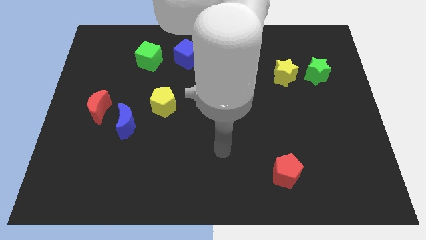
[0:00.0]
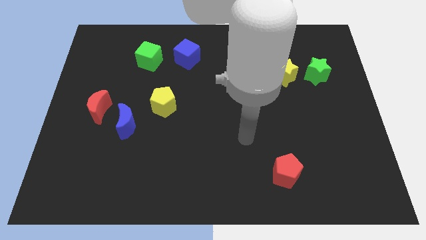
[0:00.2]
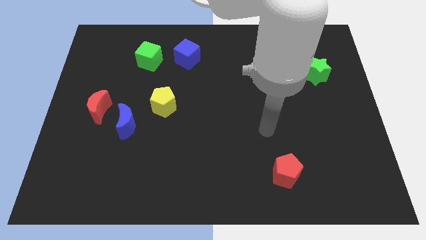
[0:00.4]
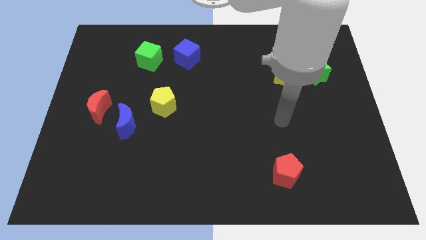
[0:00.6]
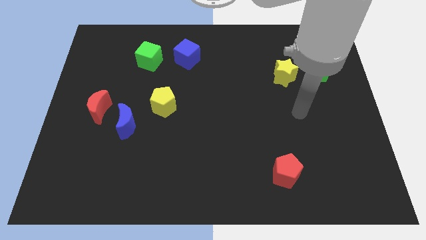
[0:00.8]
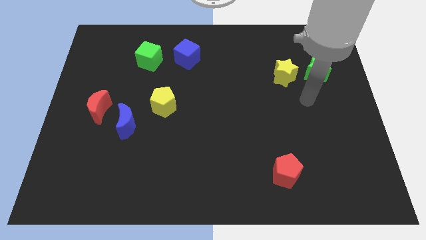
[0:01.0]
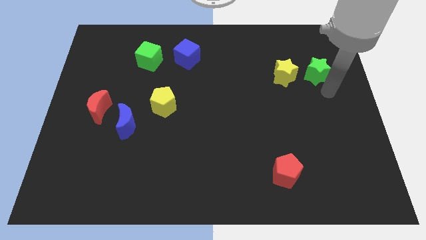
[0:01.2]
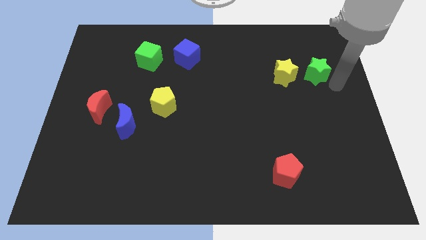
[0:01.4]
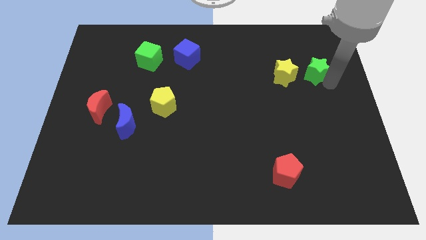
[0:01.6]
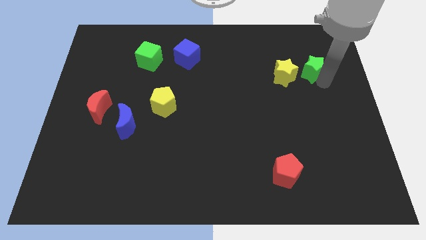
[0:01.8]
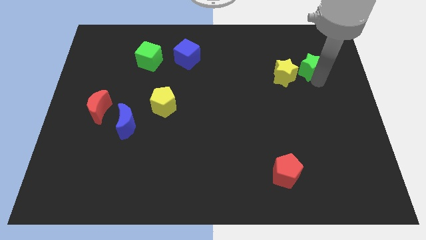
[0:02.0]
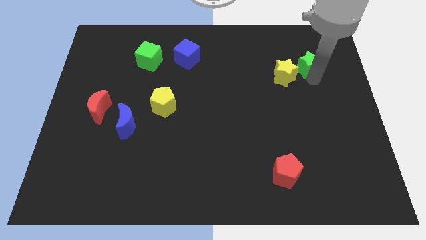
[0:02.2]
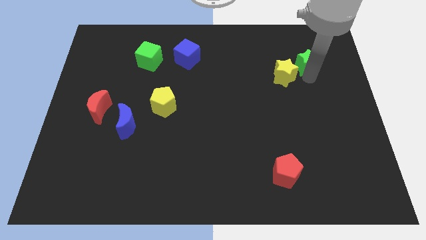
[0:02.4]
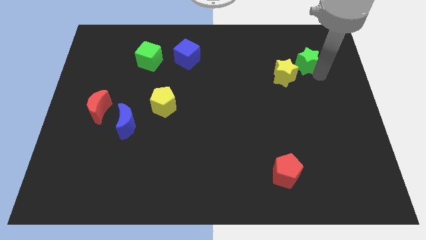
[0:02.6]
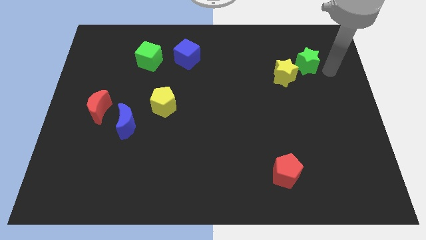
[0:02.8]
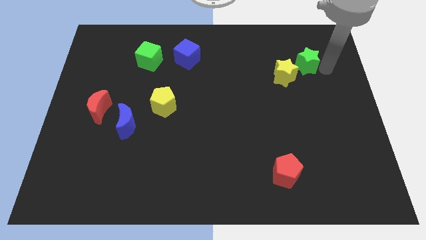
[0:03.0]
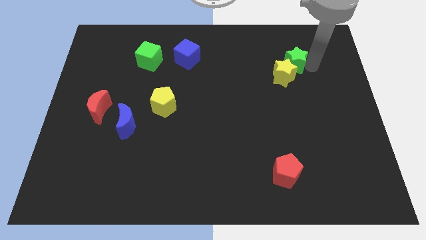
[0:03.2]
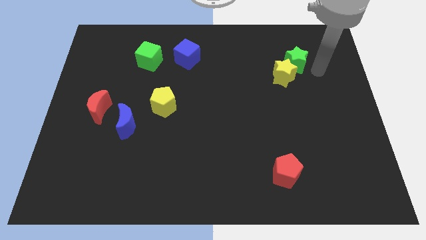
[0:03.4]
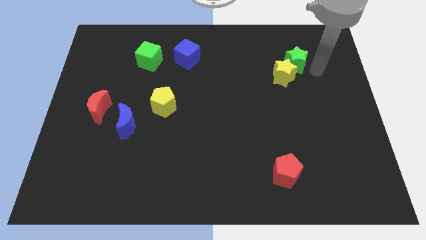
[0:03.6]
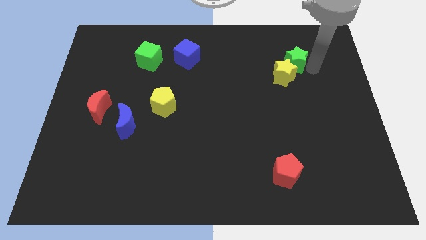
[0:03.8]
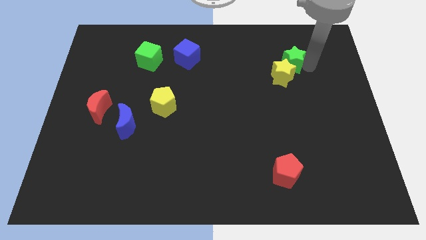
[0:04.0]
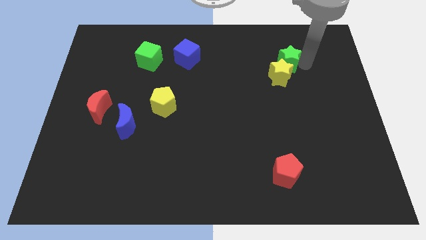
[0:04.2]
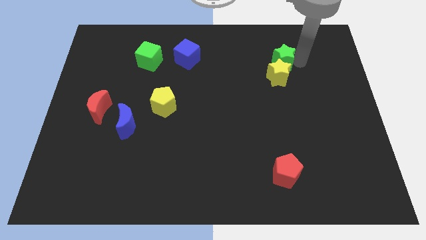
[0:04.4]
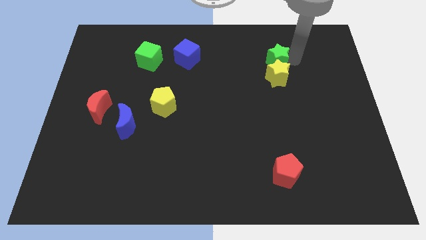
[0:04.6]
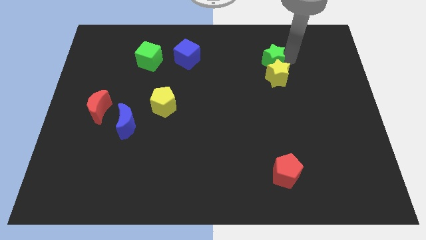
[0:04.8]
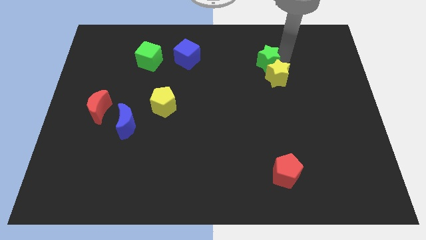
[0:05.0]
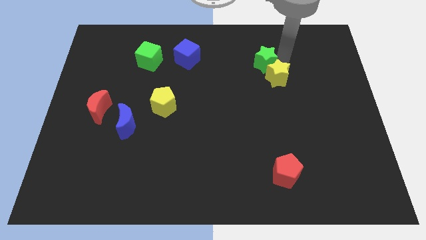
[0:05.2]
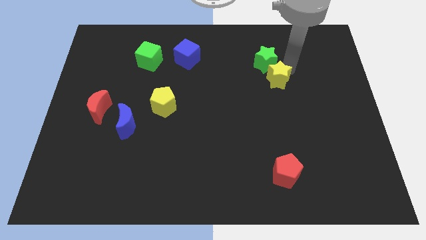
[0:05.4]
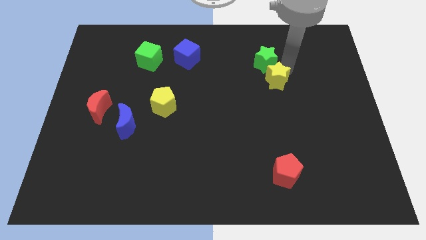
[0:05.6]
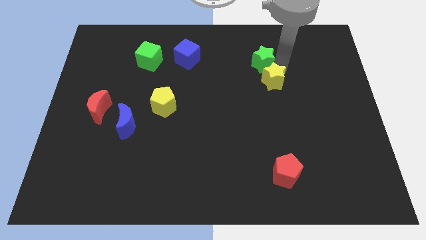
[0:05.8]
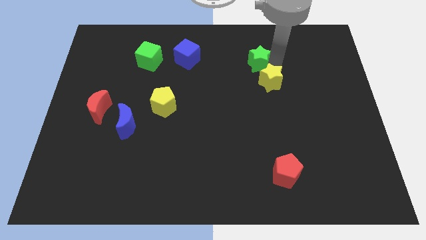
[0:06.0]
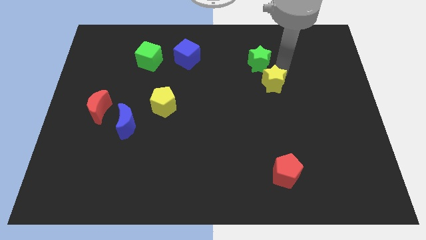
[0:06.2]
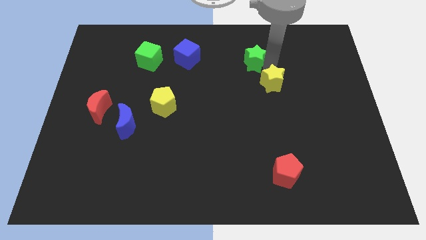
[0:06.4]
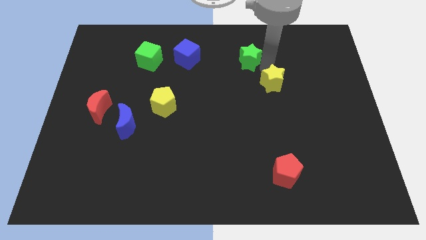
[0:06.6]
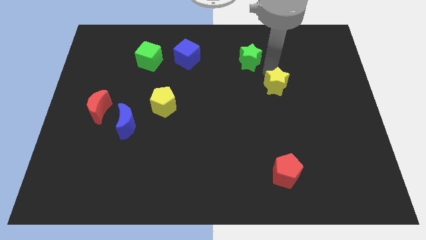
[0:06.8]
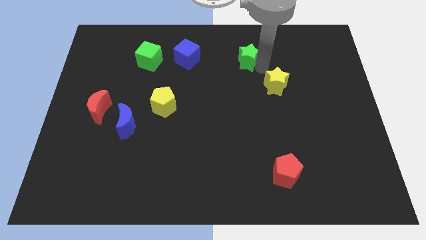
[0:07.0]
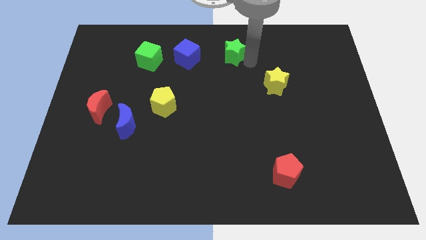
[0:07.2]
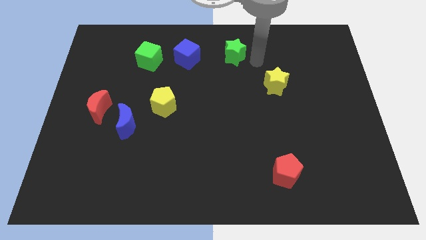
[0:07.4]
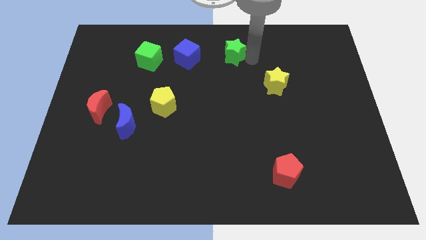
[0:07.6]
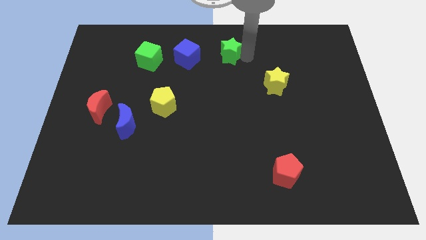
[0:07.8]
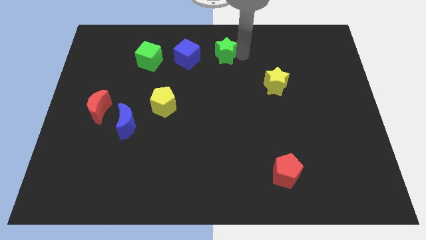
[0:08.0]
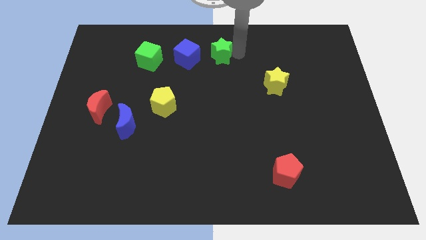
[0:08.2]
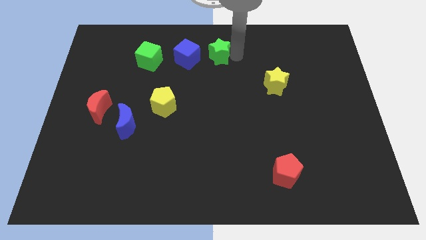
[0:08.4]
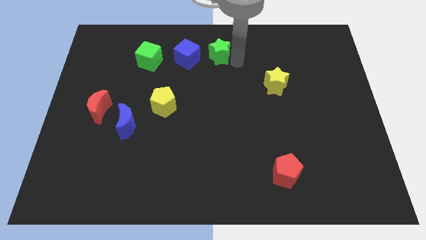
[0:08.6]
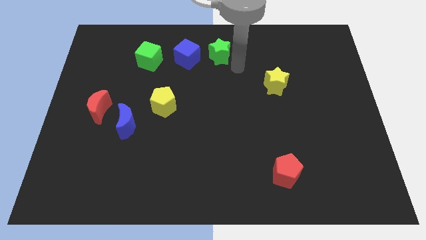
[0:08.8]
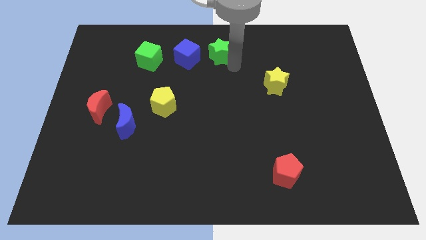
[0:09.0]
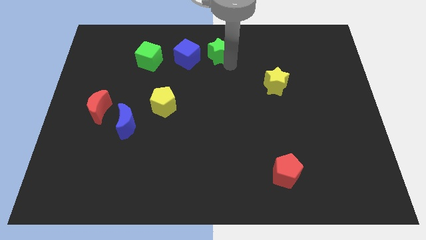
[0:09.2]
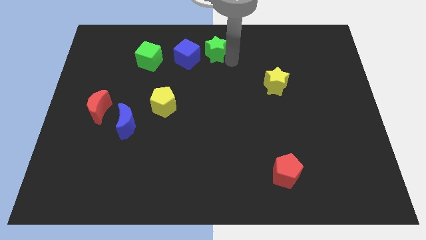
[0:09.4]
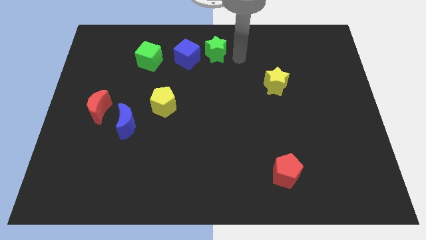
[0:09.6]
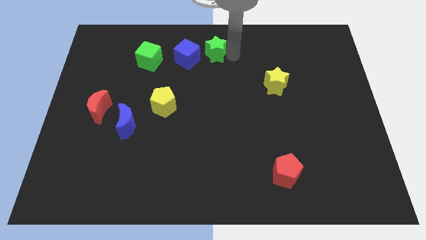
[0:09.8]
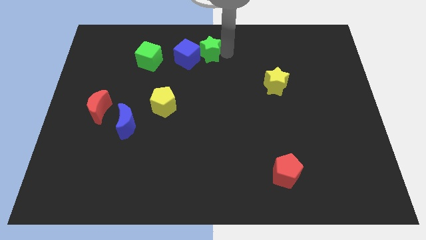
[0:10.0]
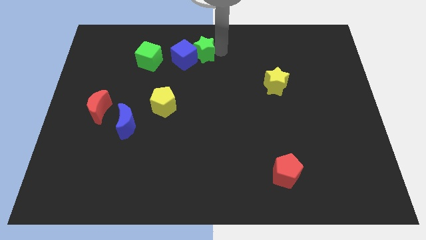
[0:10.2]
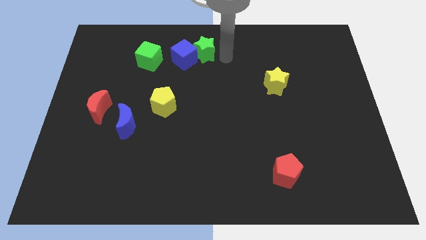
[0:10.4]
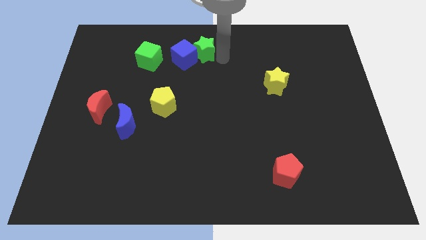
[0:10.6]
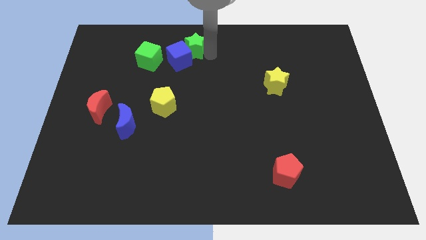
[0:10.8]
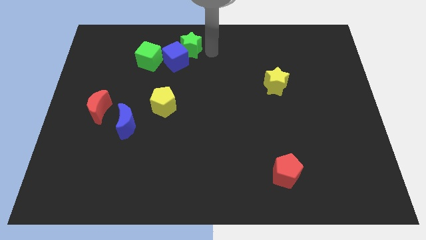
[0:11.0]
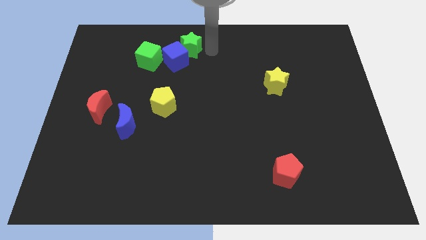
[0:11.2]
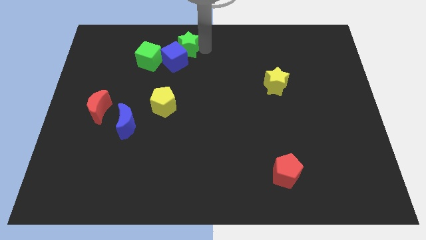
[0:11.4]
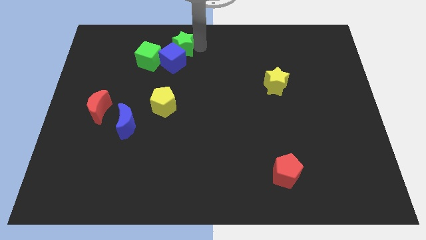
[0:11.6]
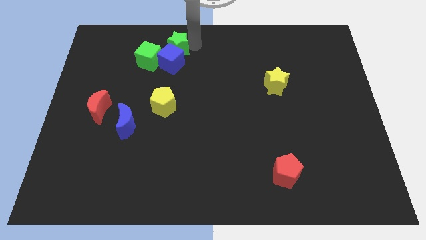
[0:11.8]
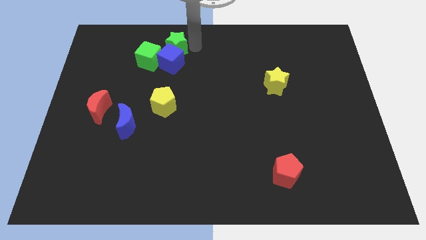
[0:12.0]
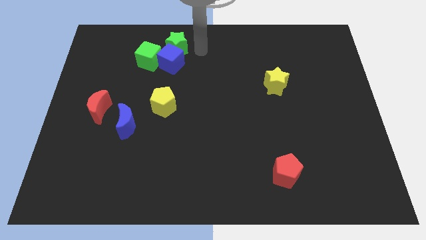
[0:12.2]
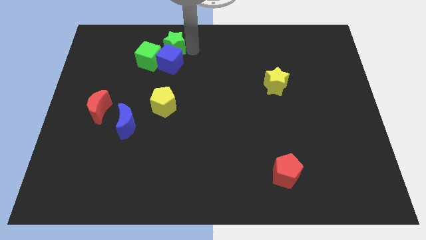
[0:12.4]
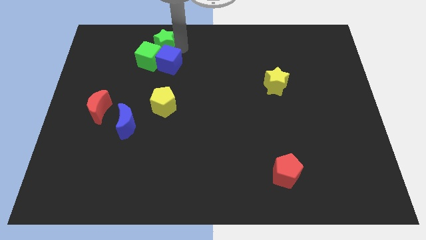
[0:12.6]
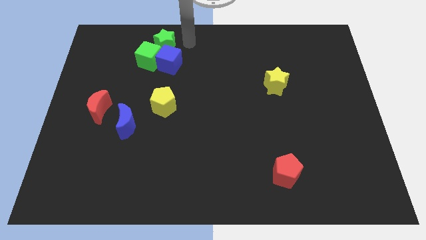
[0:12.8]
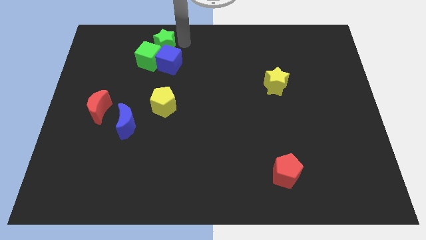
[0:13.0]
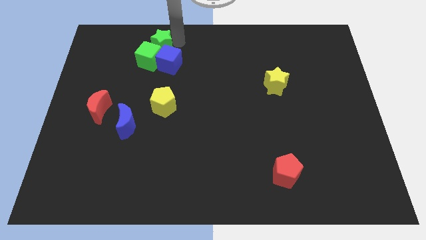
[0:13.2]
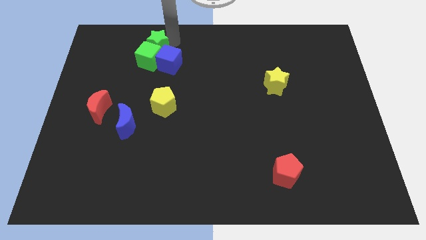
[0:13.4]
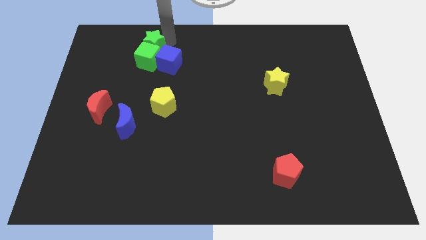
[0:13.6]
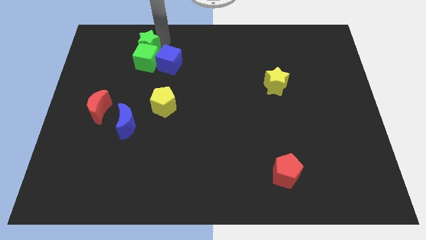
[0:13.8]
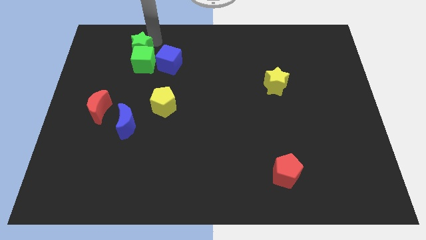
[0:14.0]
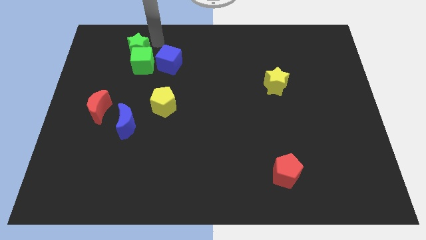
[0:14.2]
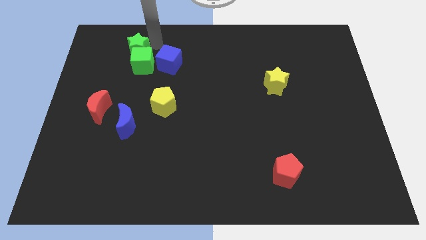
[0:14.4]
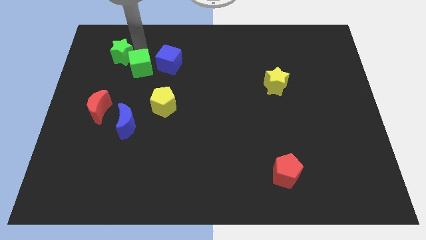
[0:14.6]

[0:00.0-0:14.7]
move the green star to the left side of the green cube
